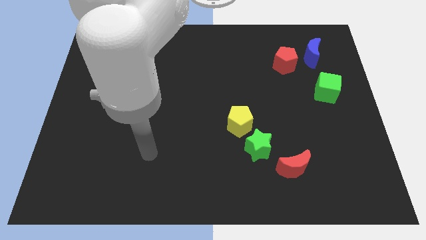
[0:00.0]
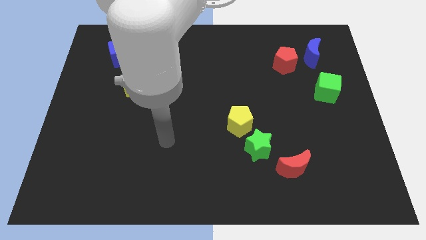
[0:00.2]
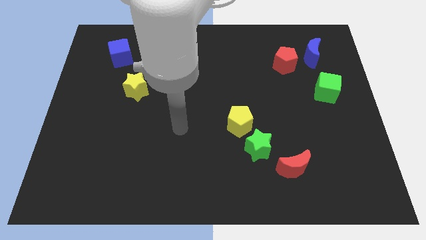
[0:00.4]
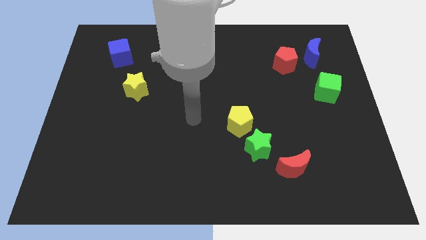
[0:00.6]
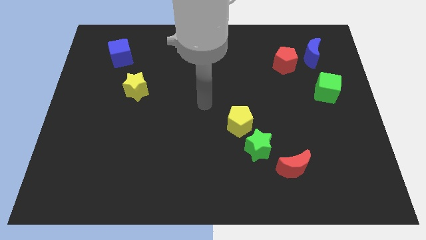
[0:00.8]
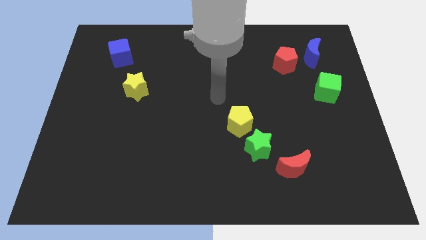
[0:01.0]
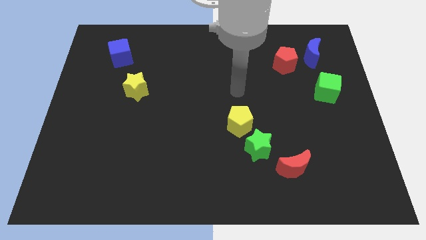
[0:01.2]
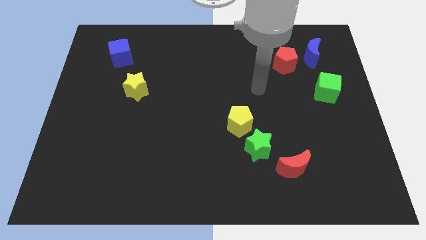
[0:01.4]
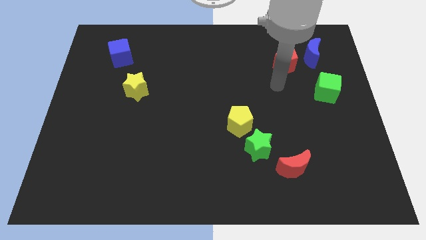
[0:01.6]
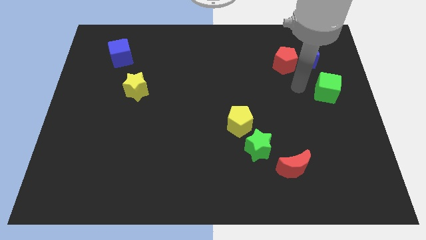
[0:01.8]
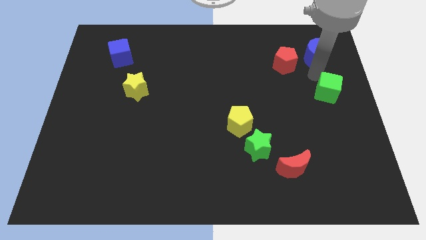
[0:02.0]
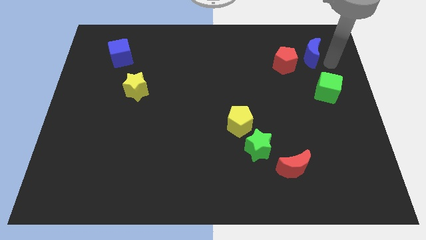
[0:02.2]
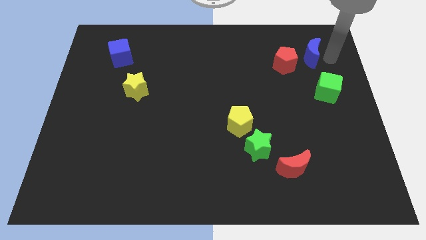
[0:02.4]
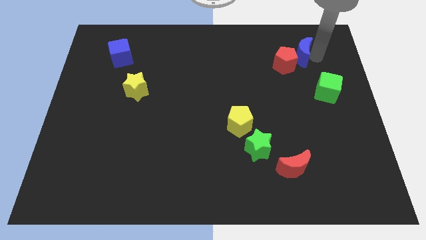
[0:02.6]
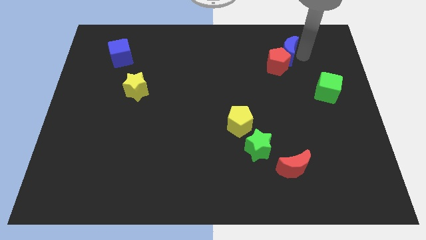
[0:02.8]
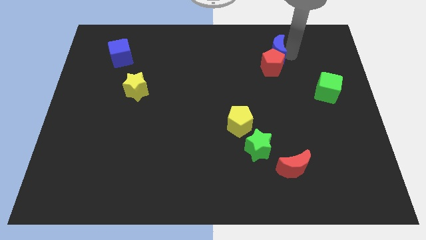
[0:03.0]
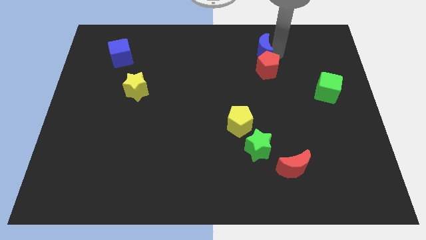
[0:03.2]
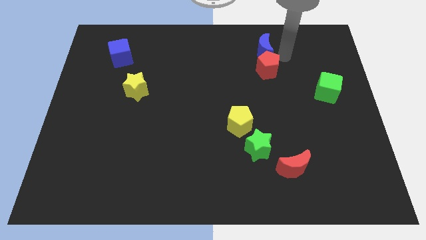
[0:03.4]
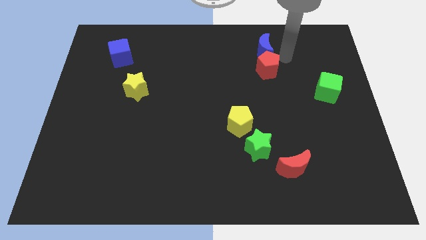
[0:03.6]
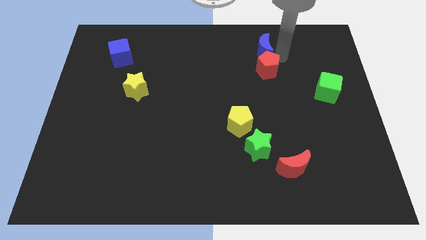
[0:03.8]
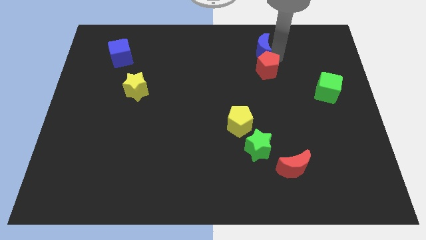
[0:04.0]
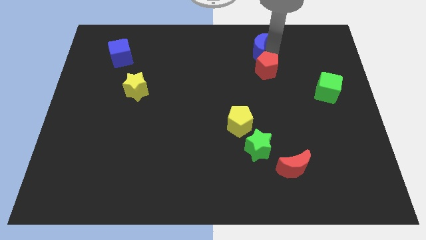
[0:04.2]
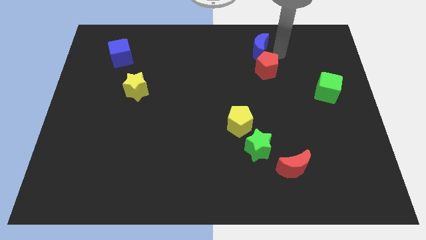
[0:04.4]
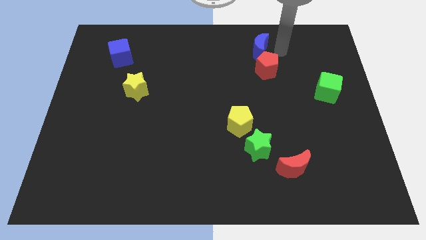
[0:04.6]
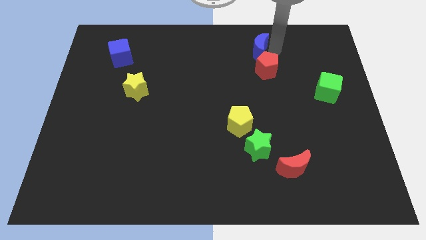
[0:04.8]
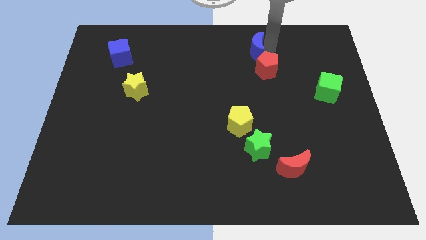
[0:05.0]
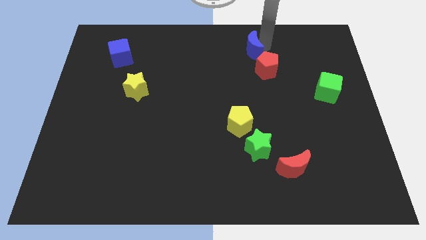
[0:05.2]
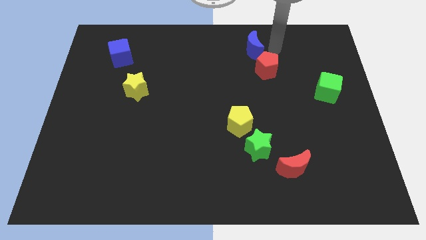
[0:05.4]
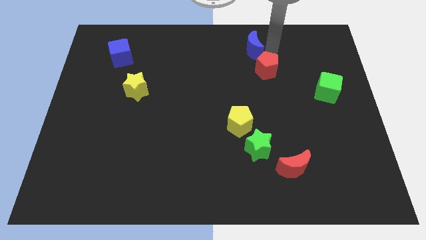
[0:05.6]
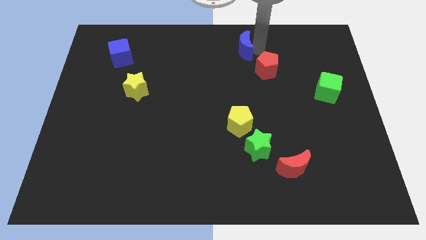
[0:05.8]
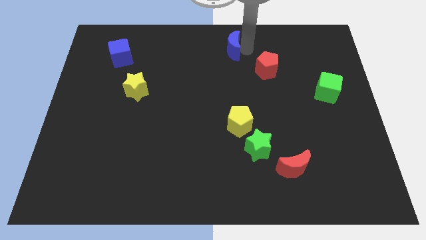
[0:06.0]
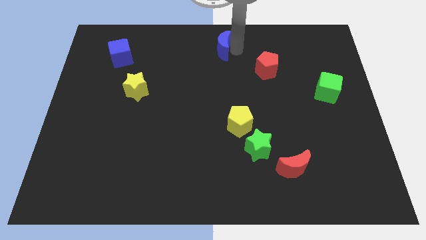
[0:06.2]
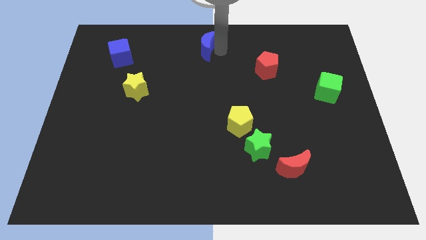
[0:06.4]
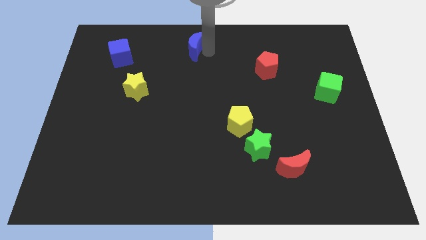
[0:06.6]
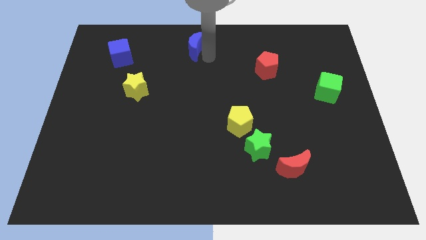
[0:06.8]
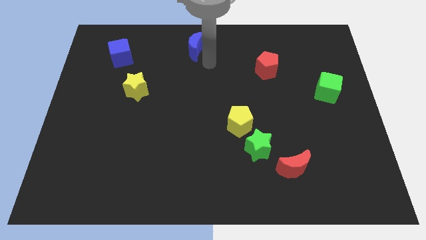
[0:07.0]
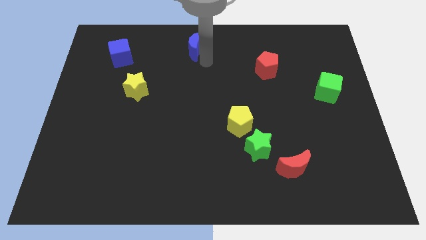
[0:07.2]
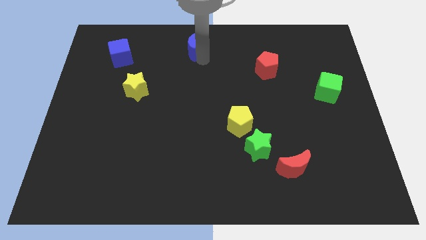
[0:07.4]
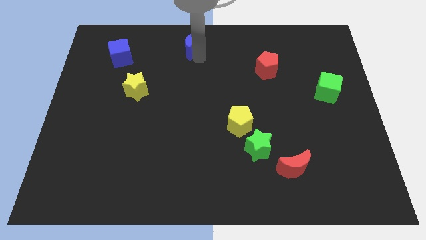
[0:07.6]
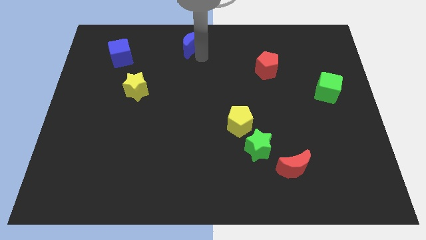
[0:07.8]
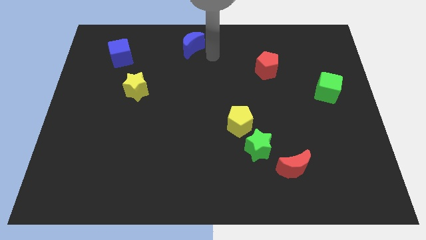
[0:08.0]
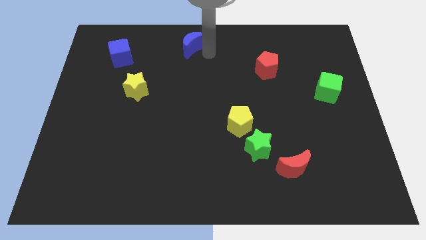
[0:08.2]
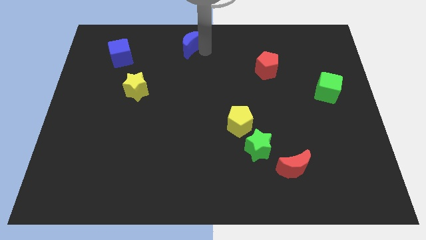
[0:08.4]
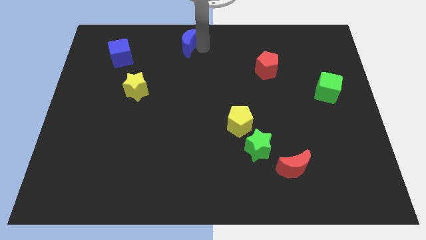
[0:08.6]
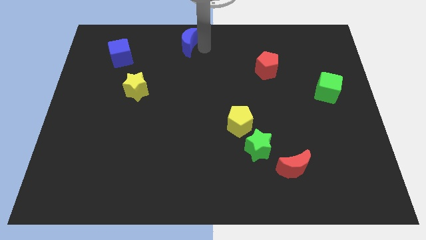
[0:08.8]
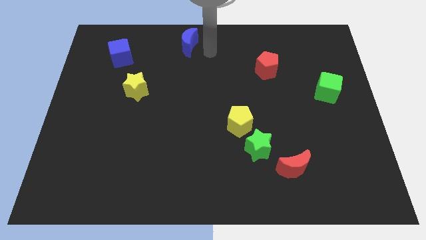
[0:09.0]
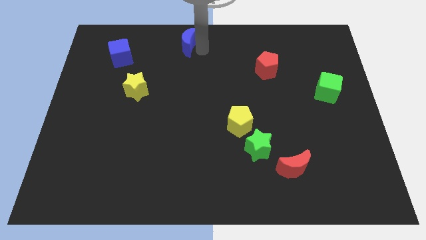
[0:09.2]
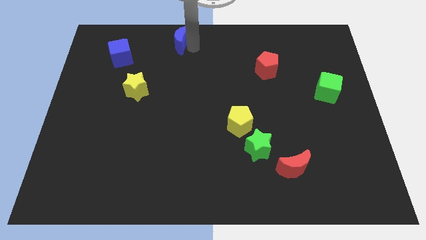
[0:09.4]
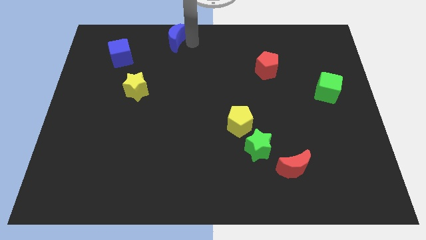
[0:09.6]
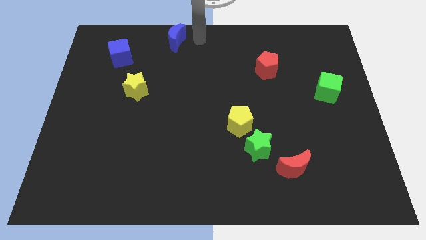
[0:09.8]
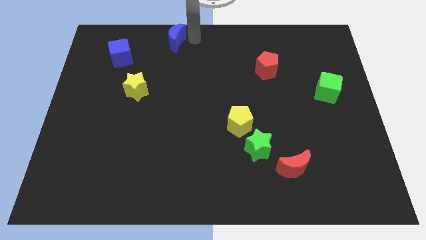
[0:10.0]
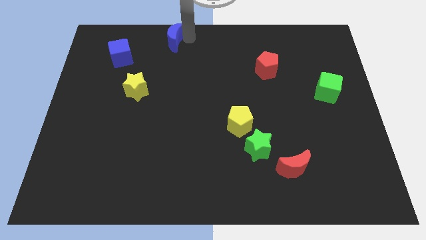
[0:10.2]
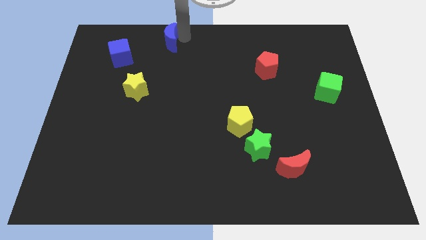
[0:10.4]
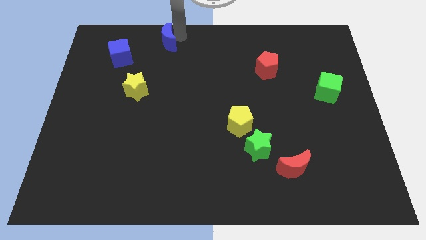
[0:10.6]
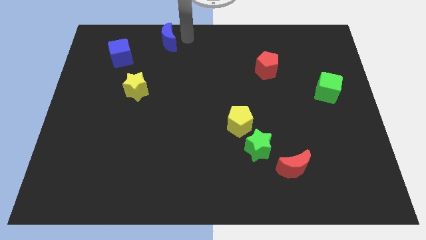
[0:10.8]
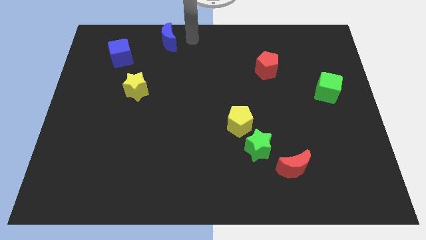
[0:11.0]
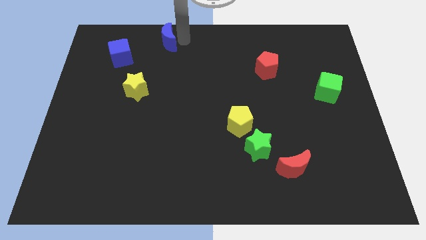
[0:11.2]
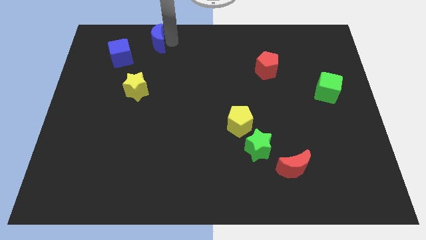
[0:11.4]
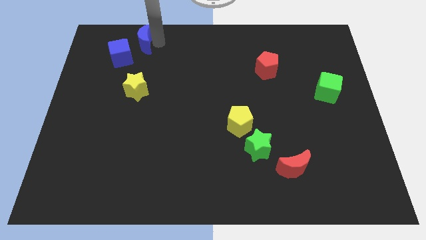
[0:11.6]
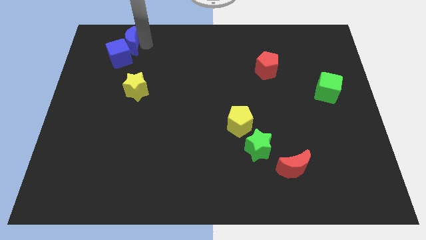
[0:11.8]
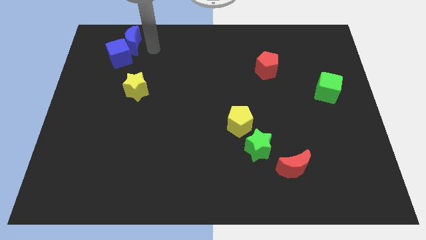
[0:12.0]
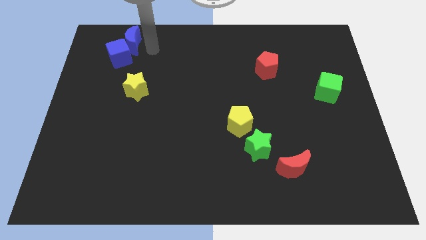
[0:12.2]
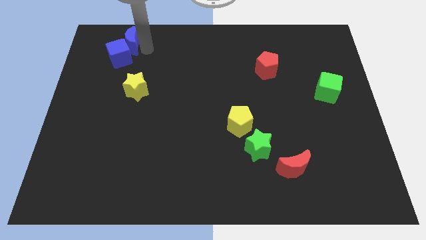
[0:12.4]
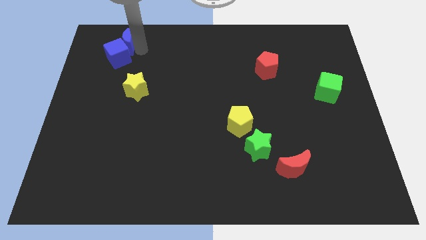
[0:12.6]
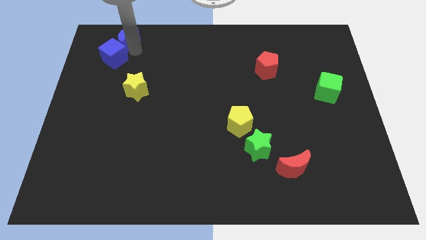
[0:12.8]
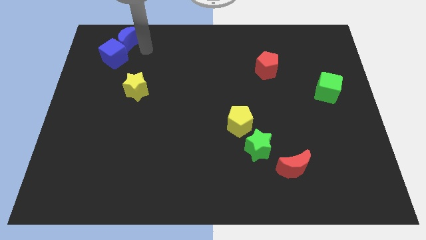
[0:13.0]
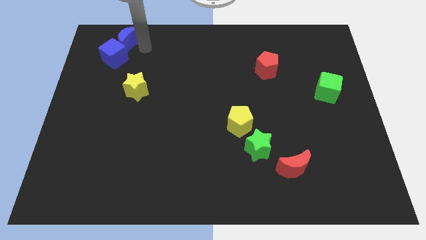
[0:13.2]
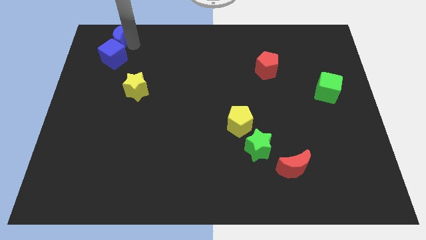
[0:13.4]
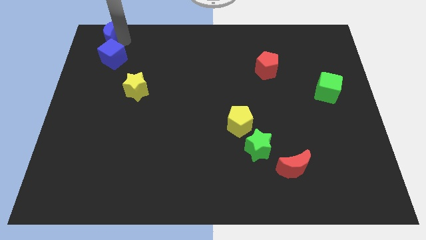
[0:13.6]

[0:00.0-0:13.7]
push the blue moon to the top left

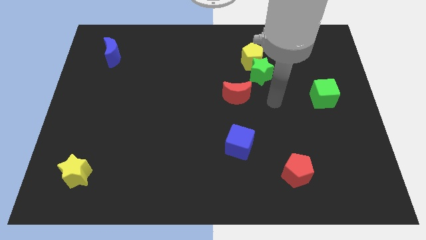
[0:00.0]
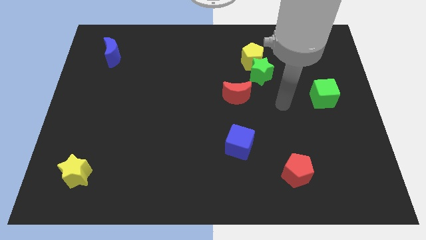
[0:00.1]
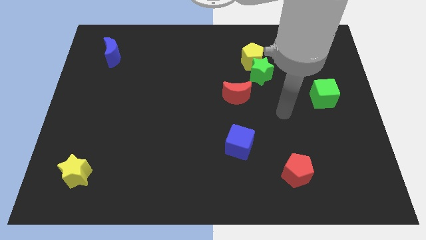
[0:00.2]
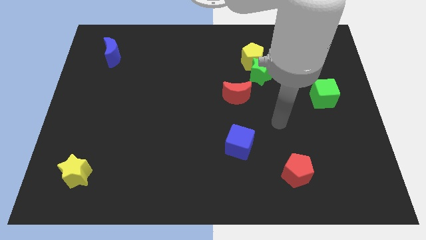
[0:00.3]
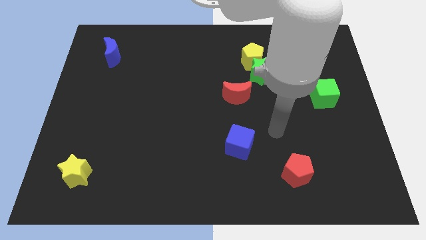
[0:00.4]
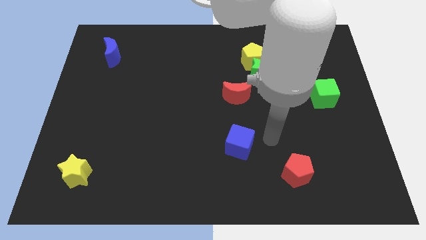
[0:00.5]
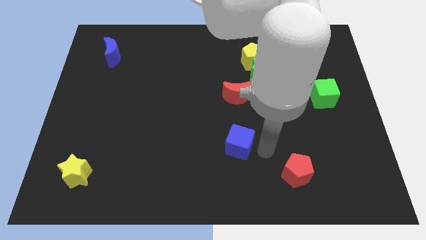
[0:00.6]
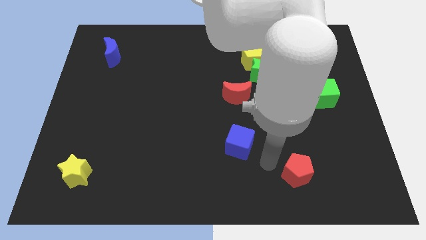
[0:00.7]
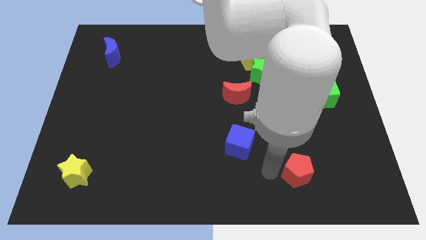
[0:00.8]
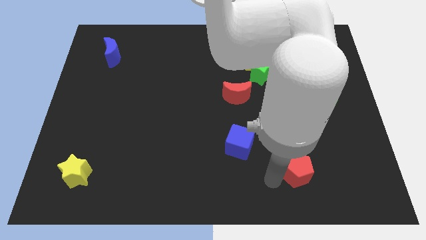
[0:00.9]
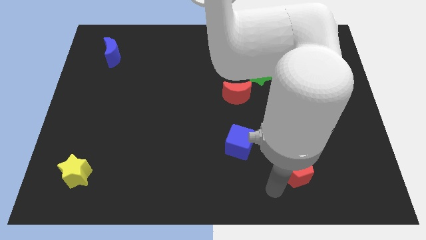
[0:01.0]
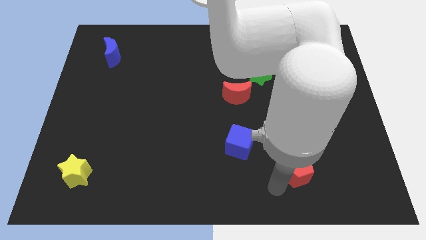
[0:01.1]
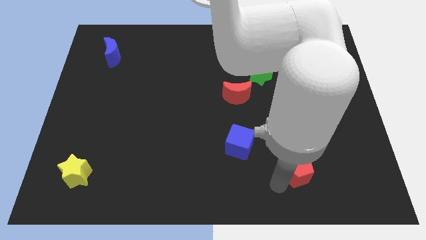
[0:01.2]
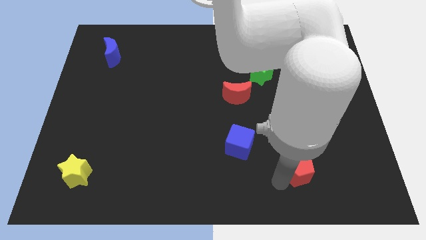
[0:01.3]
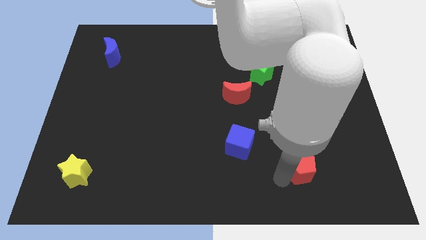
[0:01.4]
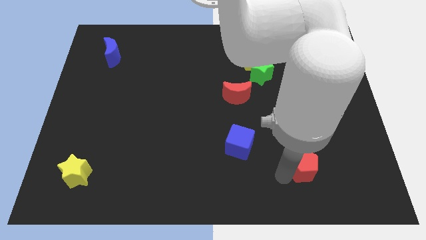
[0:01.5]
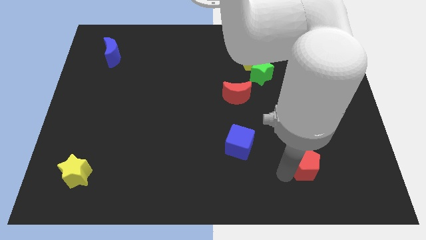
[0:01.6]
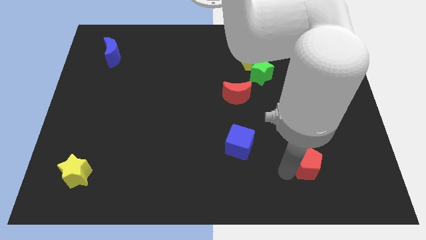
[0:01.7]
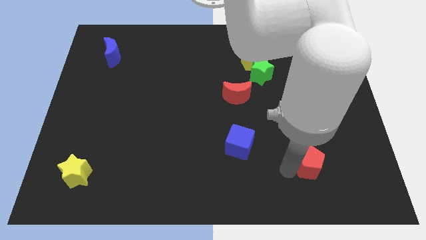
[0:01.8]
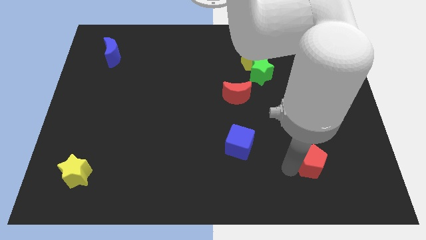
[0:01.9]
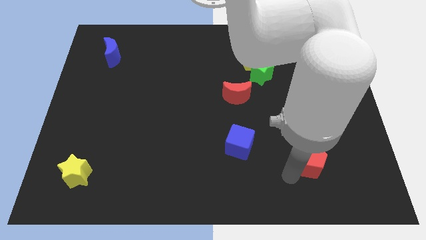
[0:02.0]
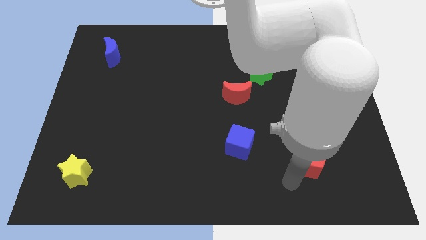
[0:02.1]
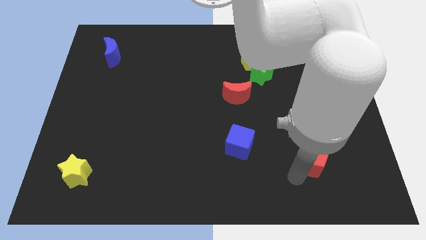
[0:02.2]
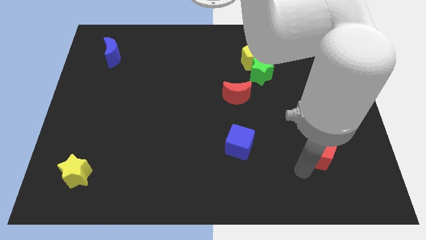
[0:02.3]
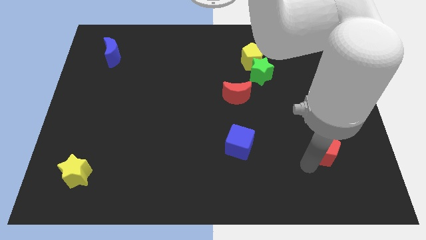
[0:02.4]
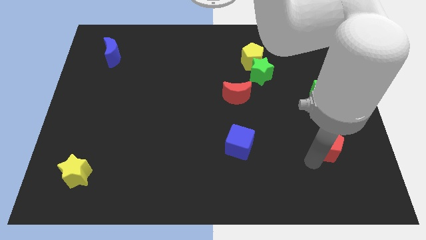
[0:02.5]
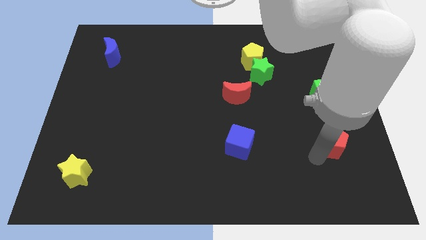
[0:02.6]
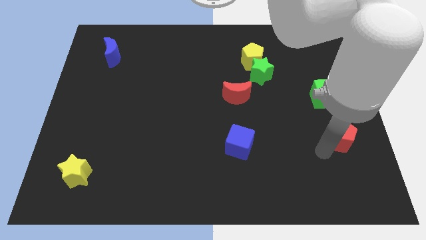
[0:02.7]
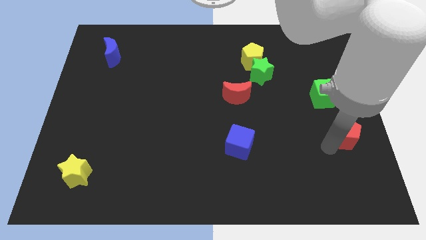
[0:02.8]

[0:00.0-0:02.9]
slide the red pentagon to the right side
